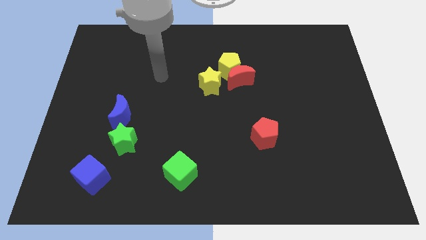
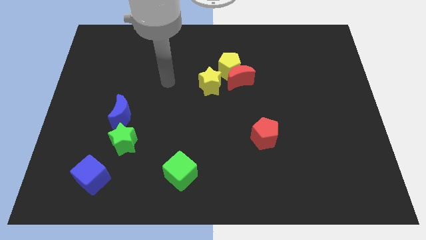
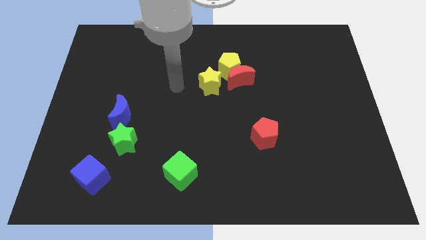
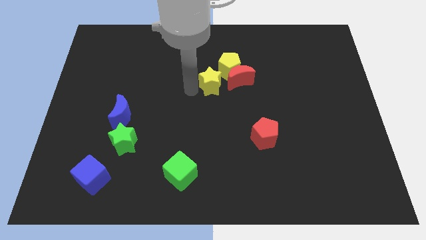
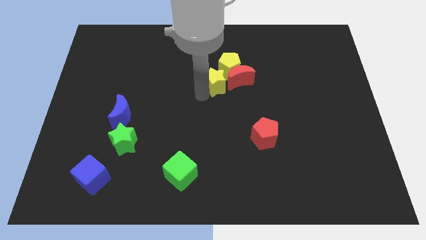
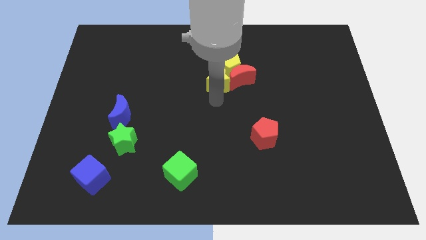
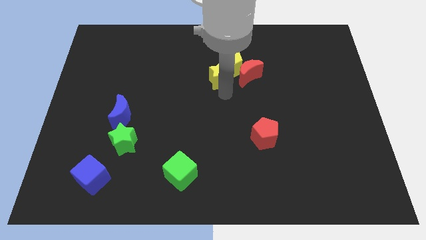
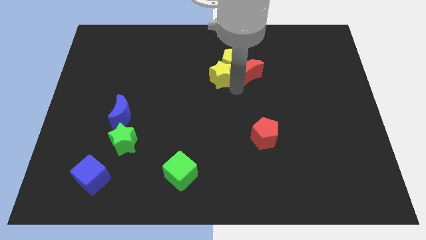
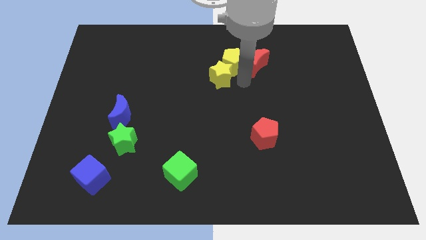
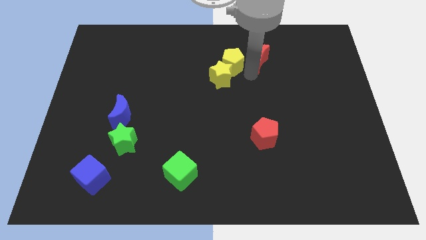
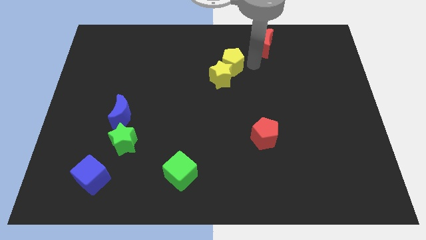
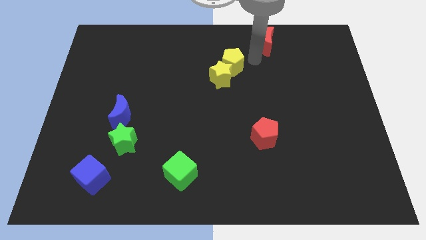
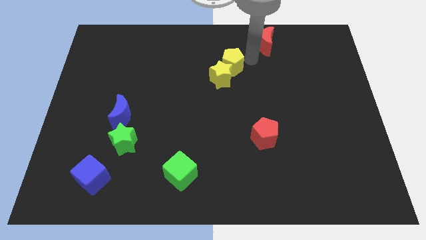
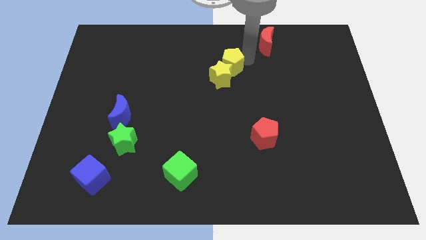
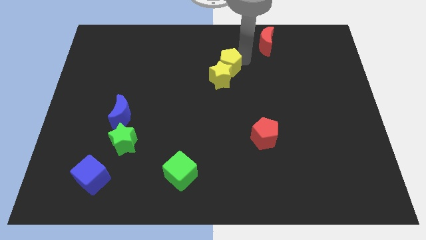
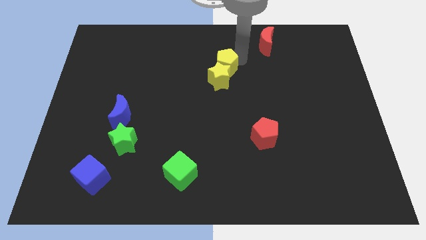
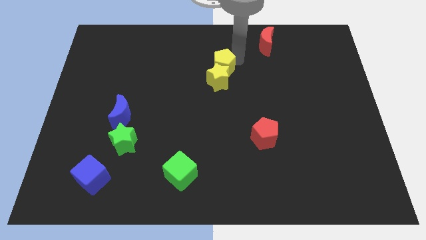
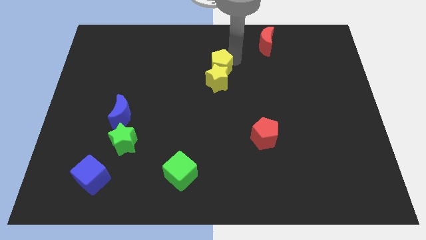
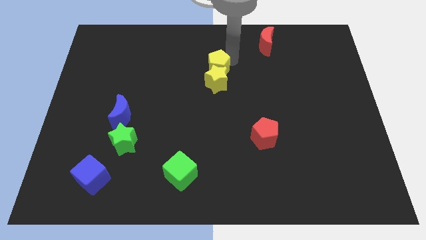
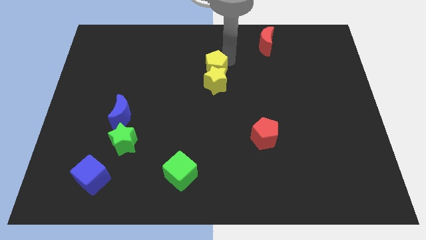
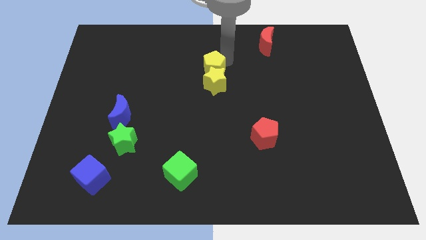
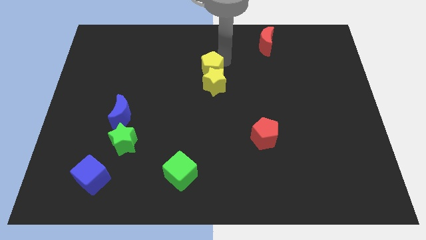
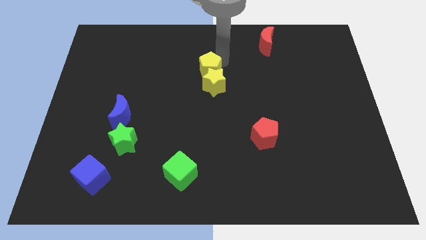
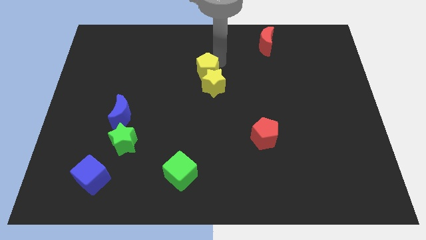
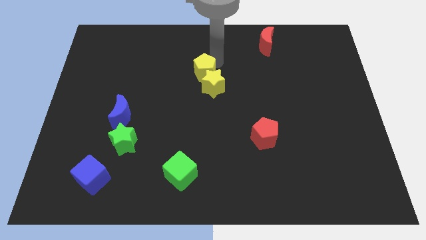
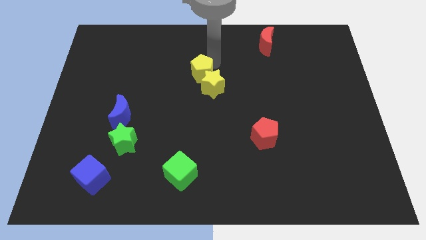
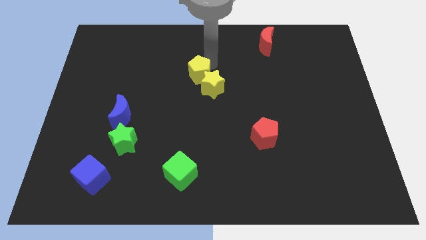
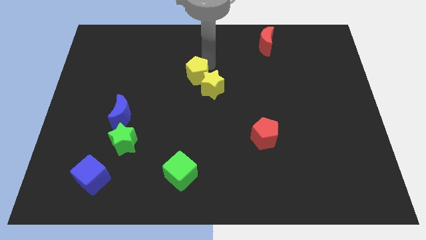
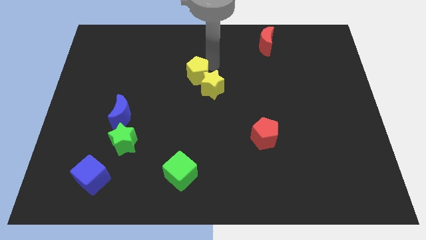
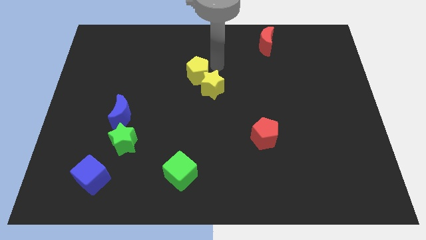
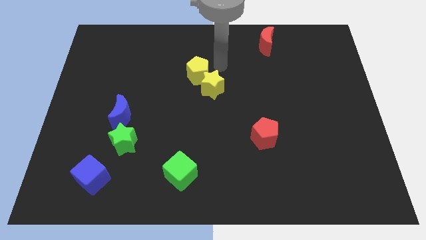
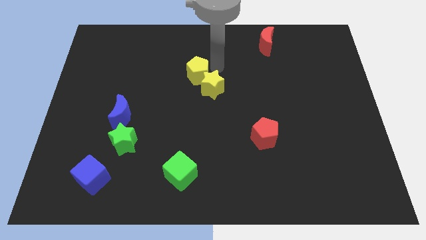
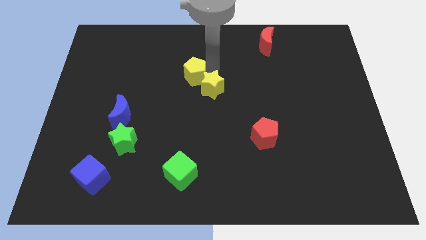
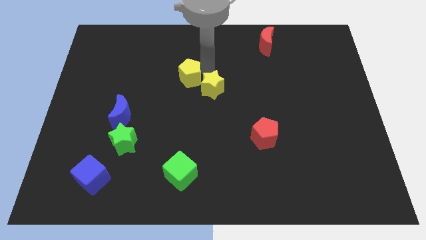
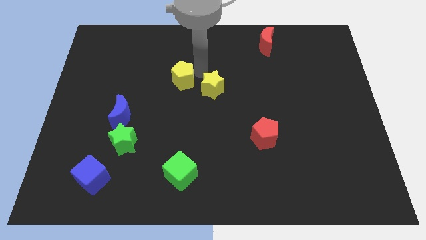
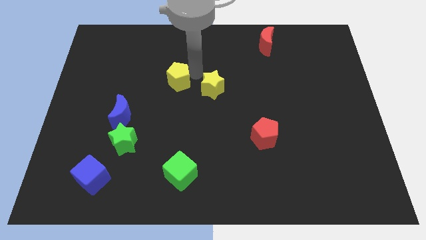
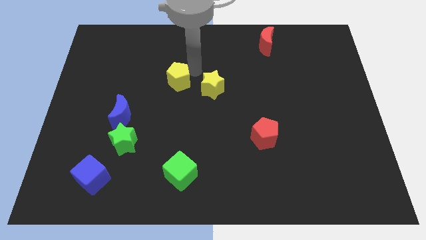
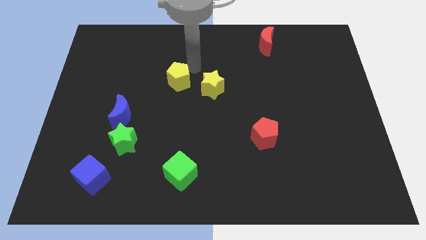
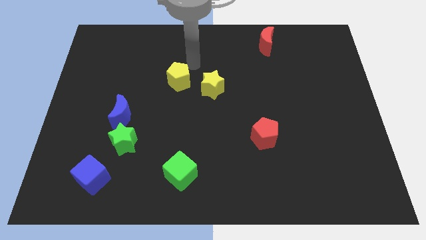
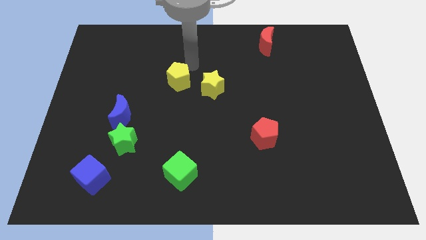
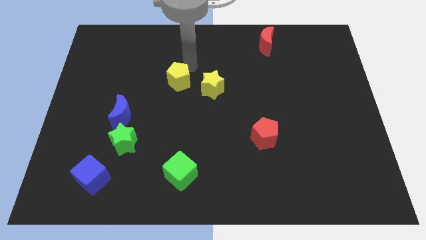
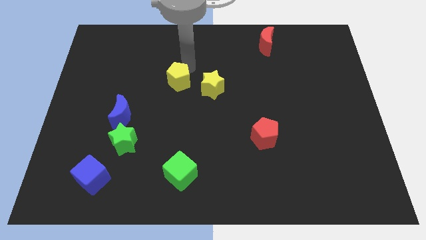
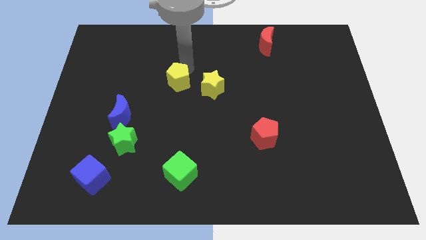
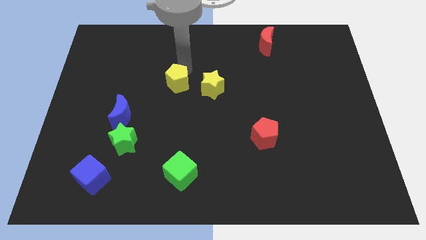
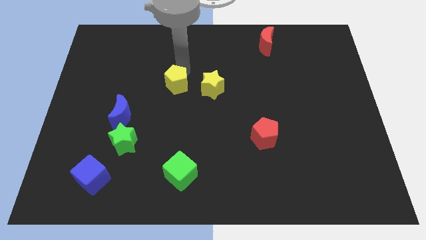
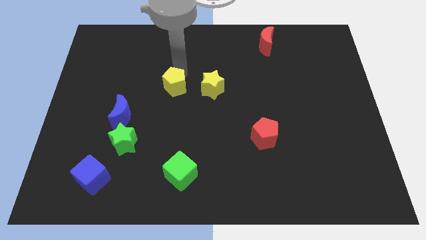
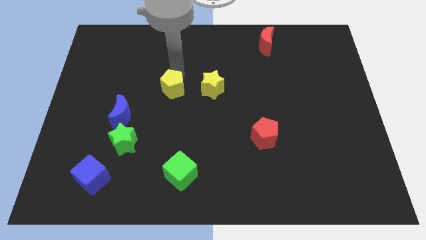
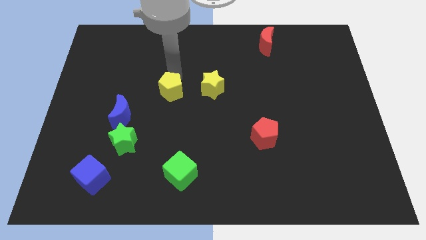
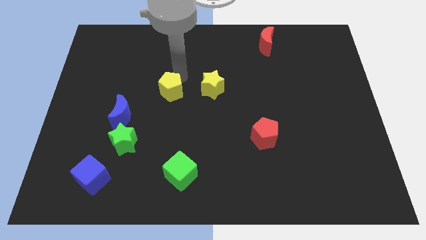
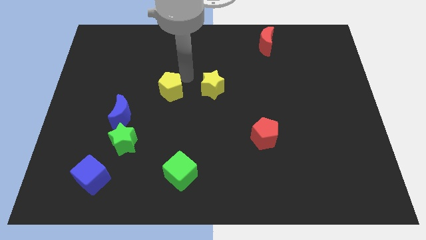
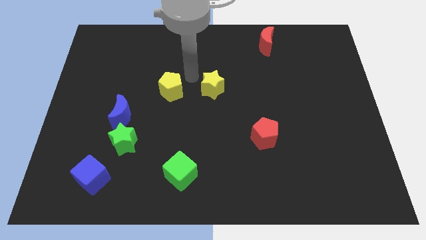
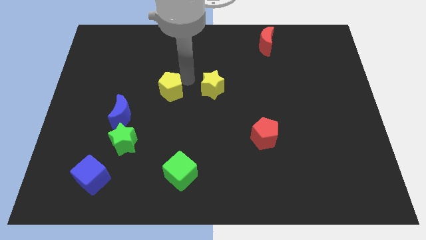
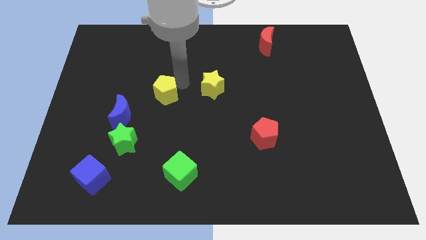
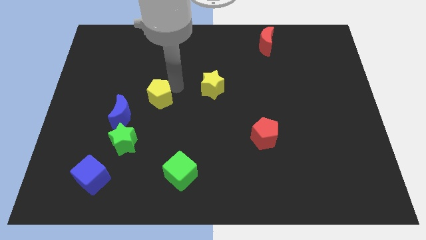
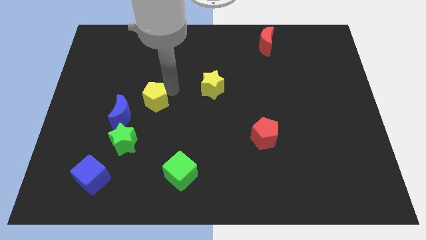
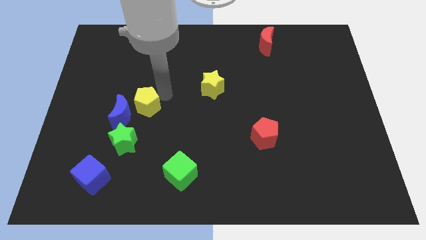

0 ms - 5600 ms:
put the yellow pentagon next to the blue moon

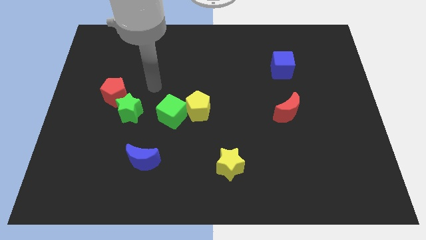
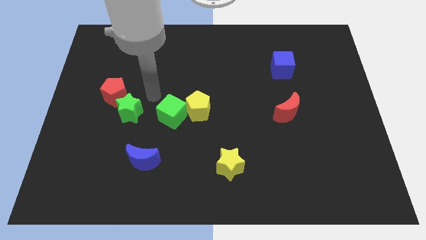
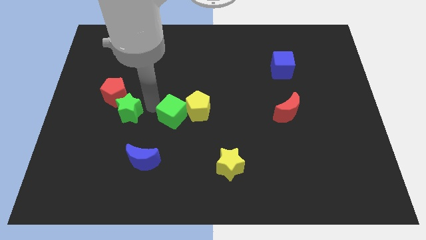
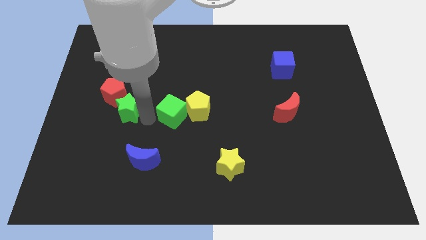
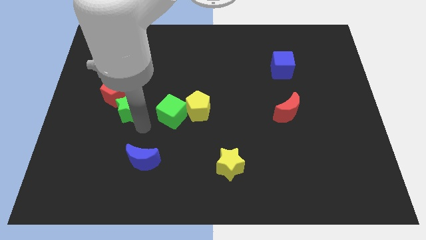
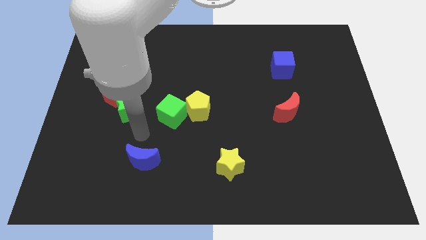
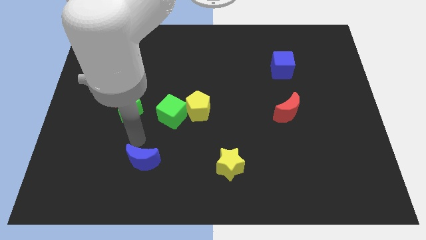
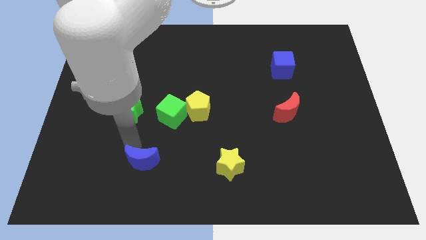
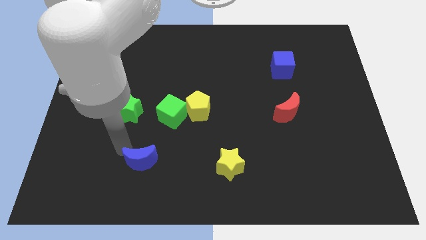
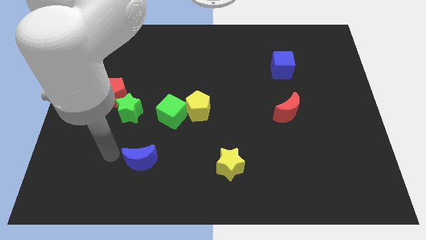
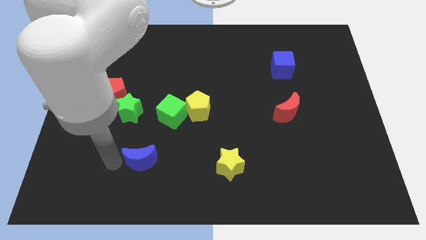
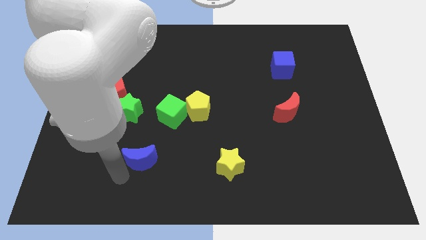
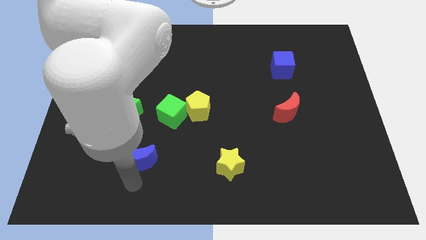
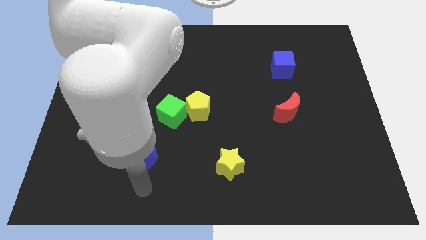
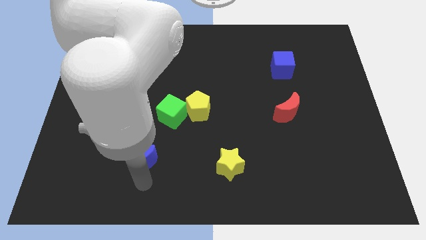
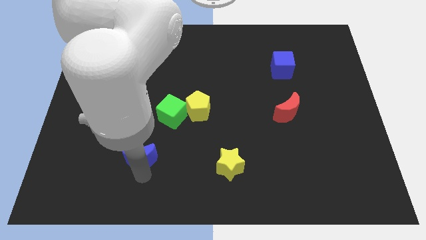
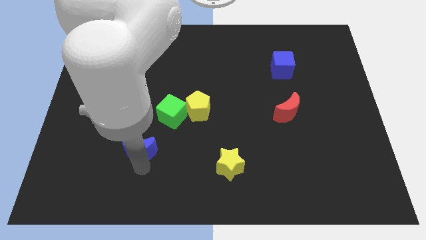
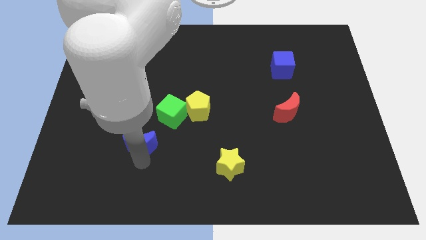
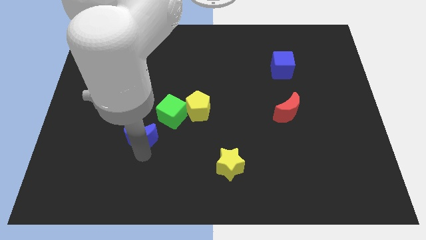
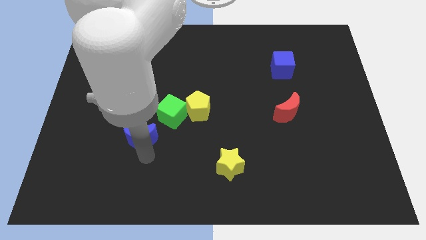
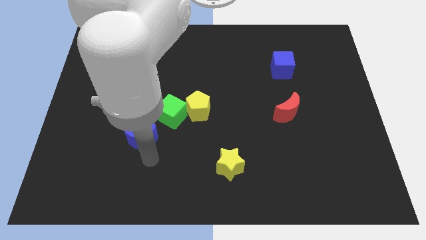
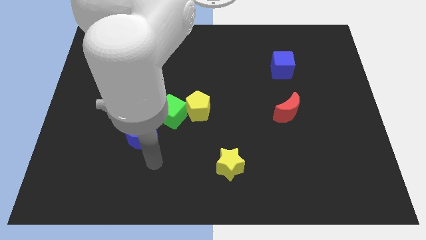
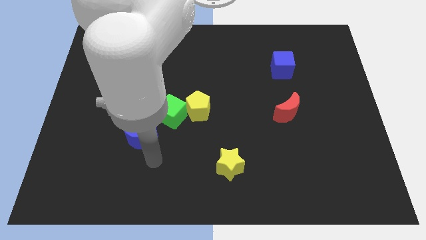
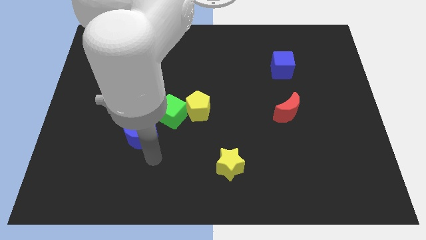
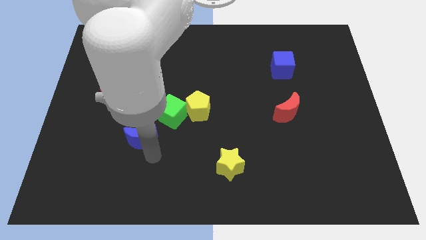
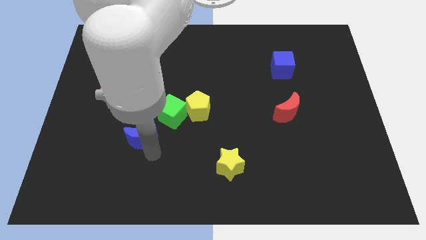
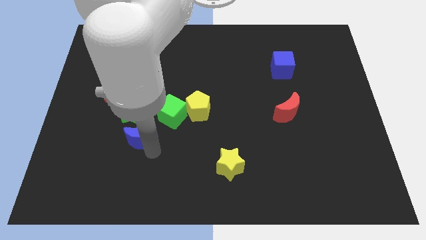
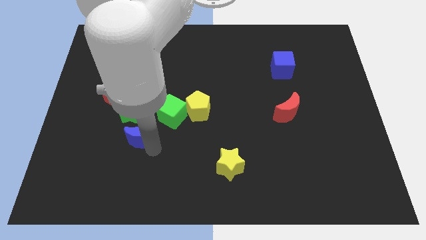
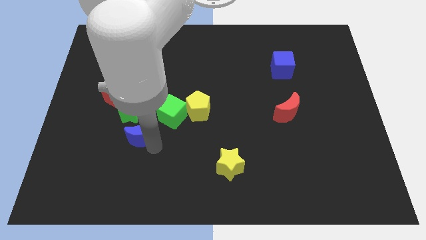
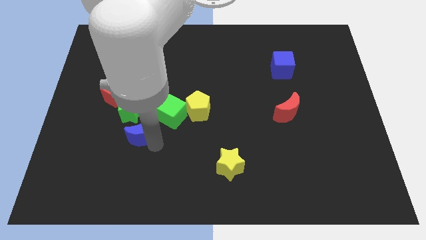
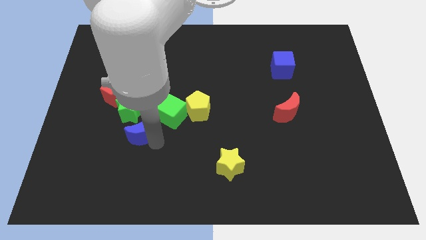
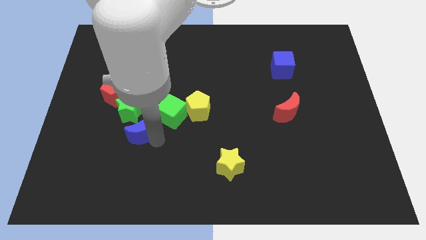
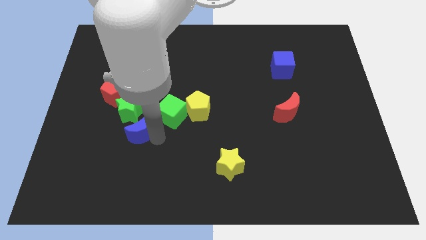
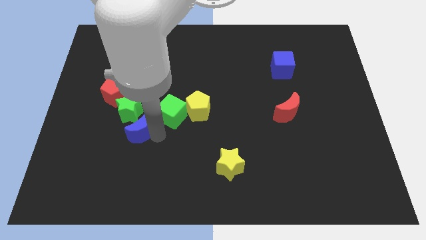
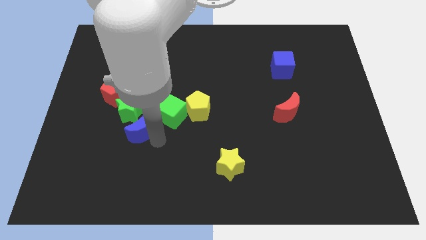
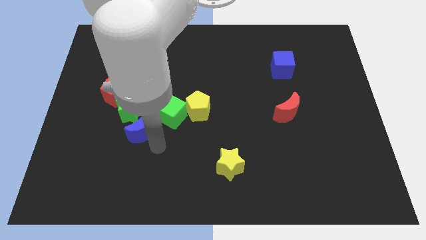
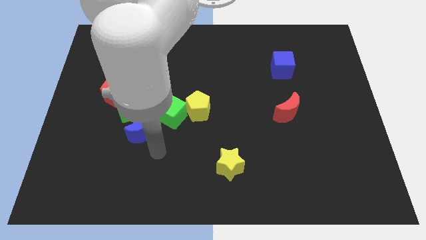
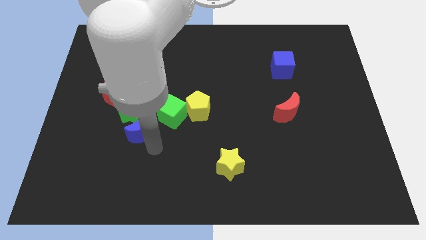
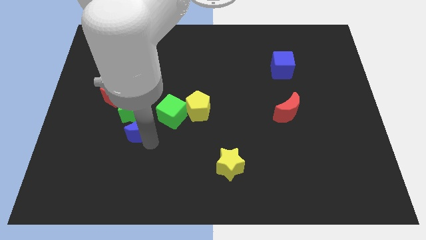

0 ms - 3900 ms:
put the blue moon close to the green star
